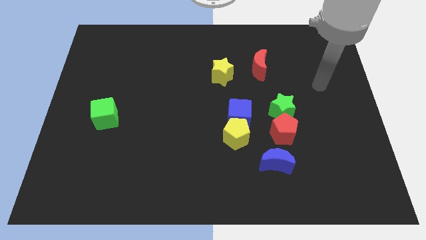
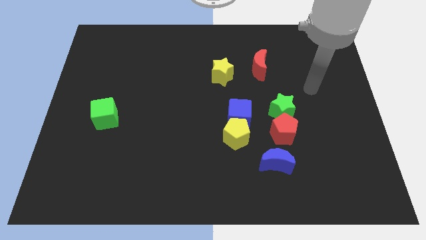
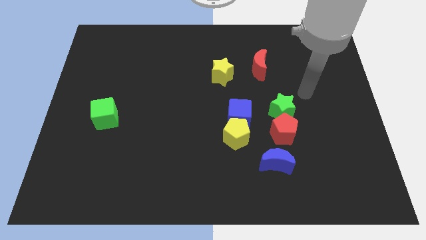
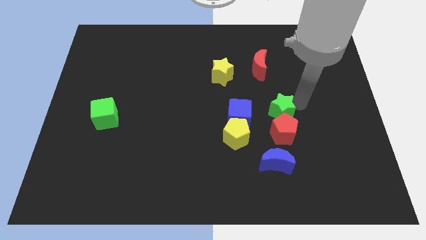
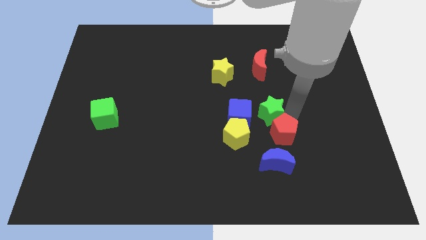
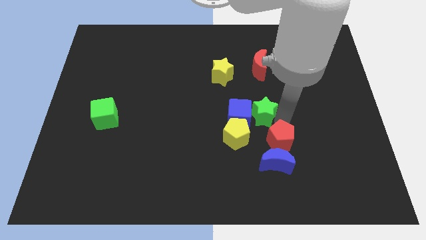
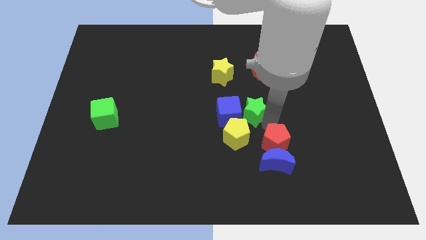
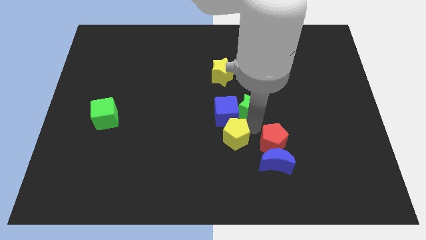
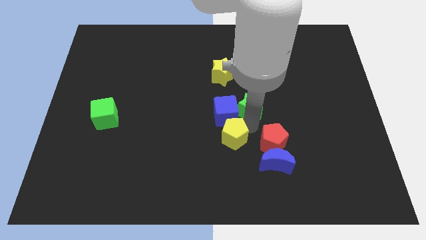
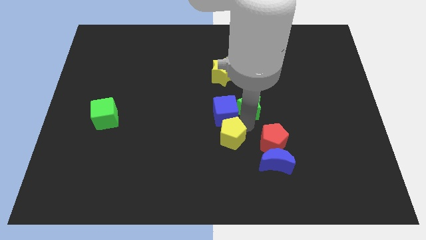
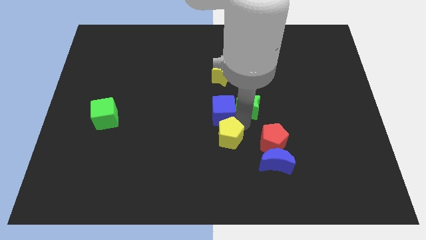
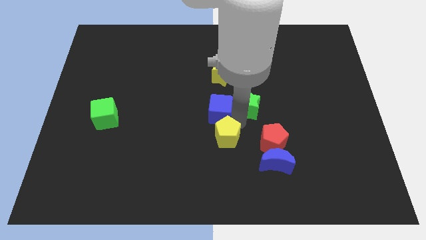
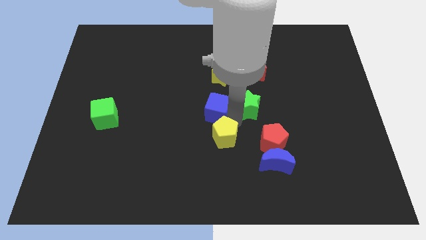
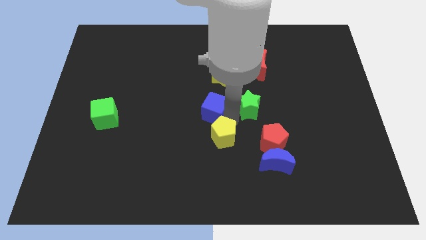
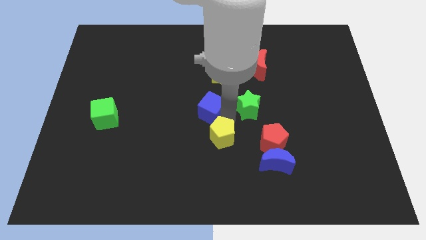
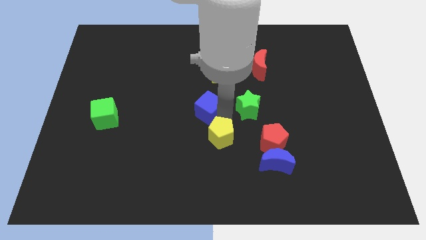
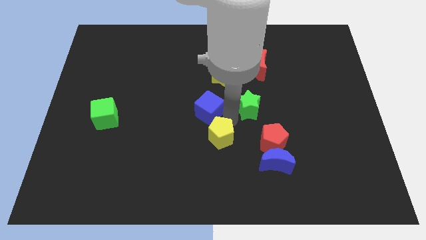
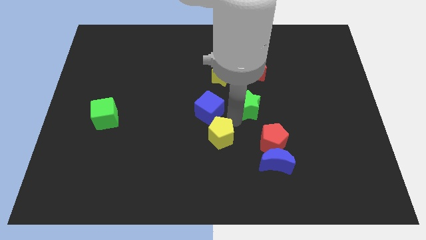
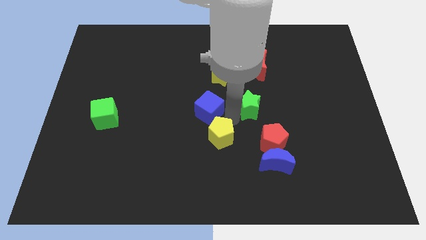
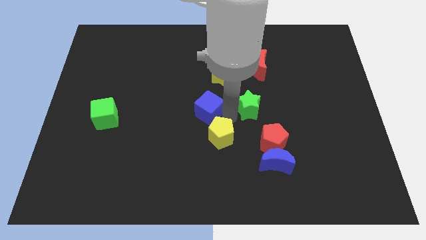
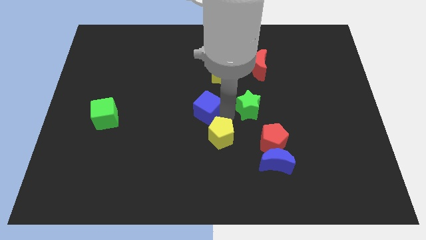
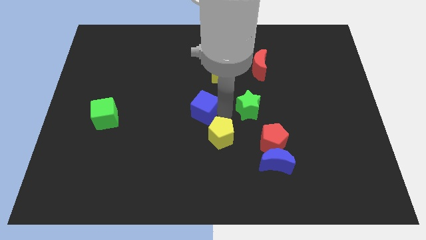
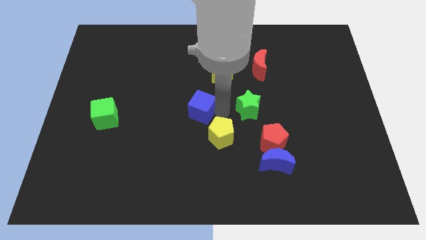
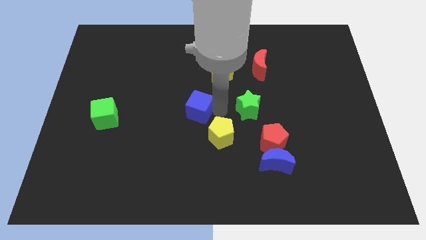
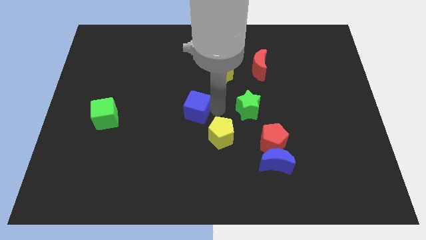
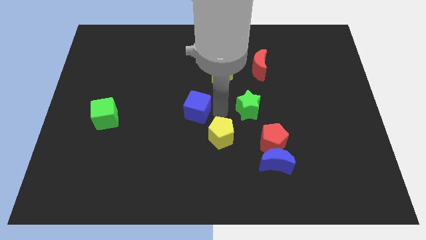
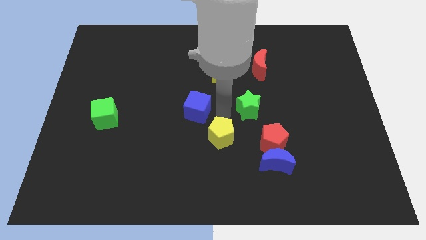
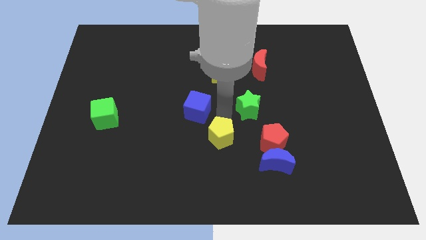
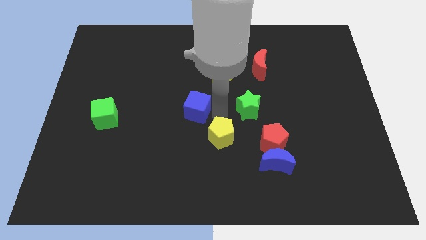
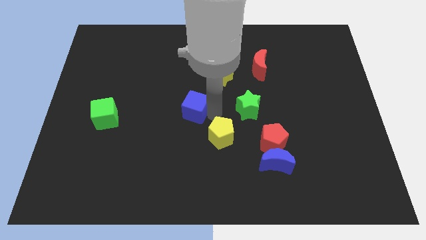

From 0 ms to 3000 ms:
move the blue cube away from the yellow pentagon and green star

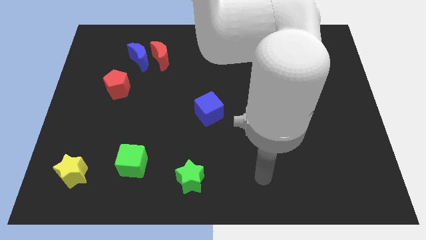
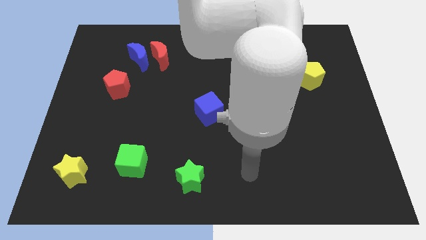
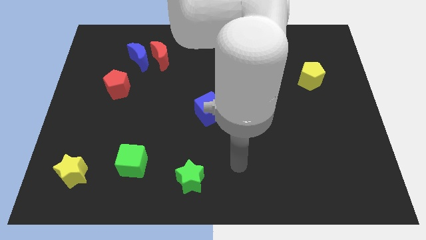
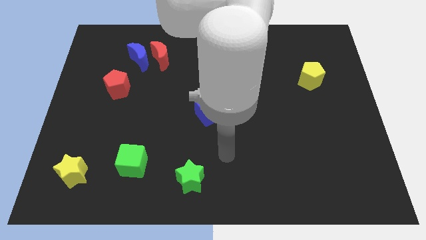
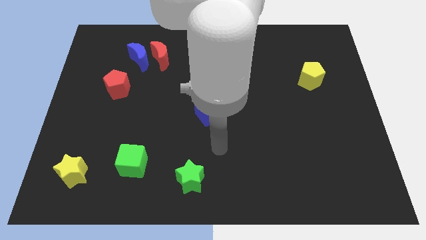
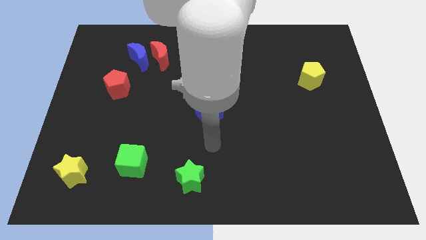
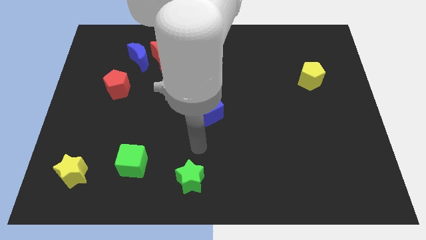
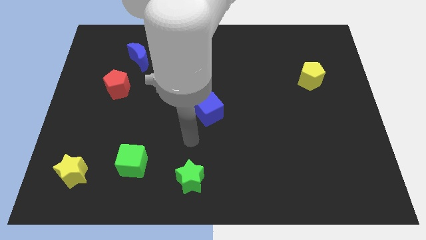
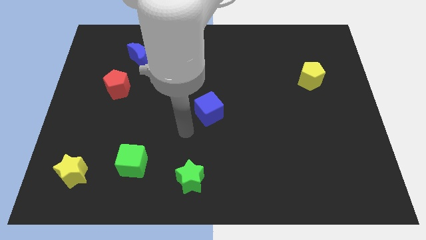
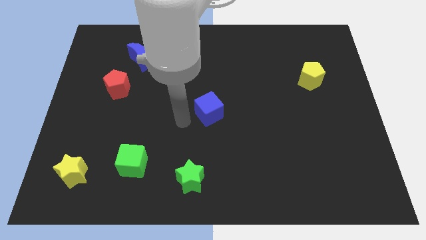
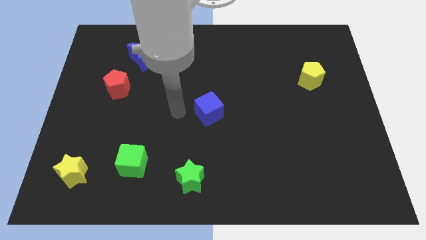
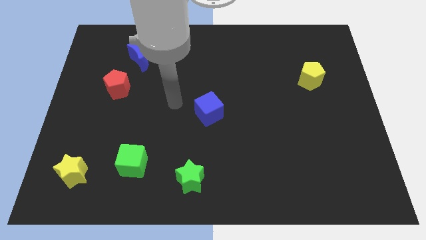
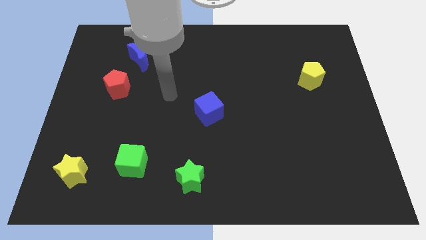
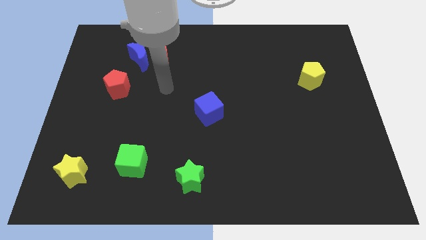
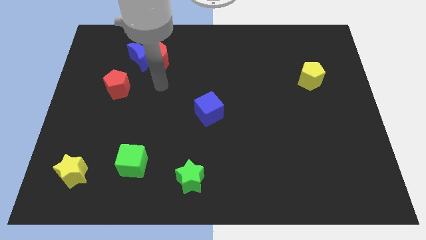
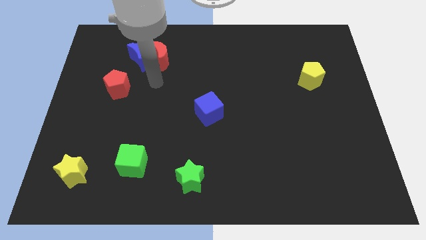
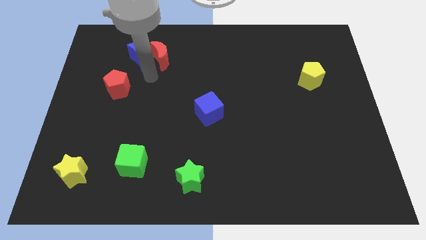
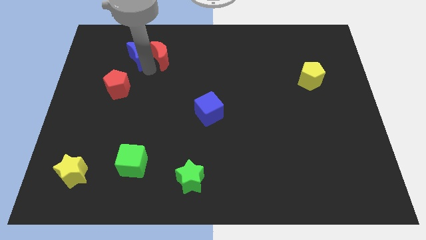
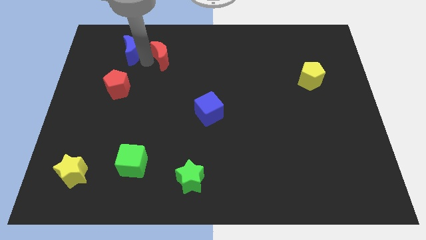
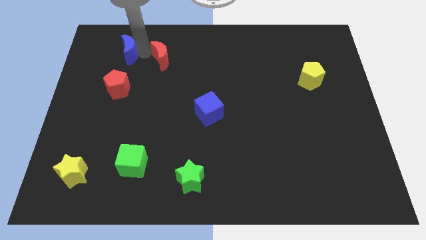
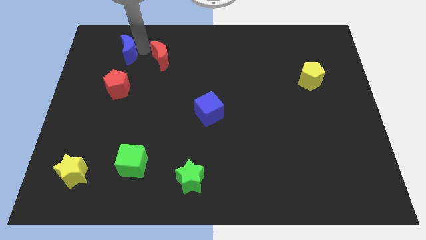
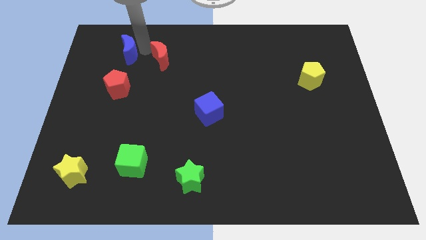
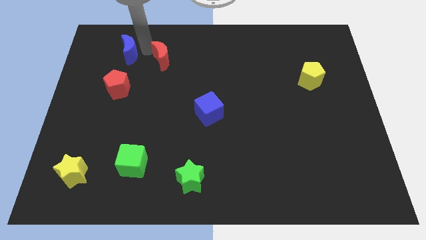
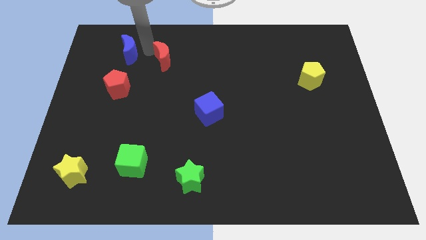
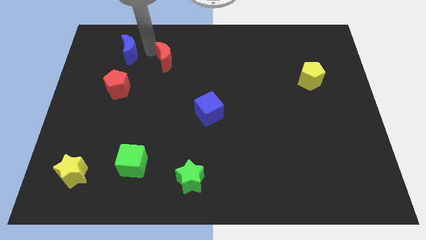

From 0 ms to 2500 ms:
pull the red moon apart from the blue moon

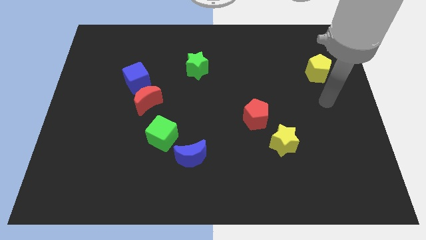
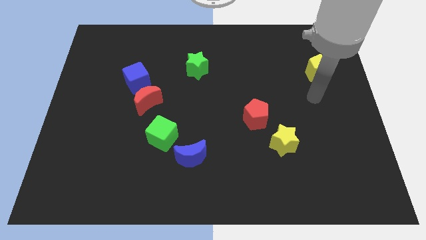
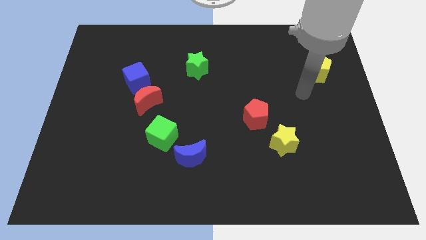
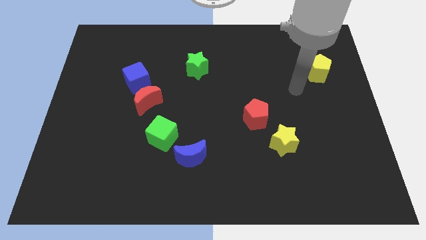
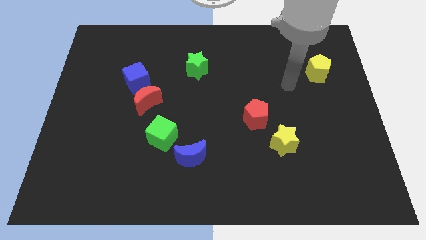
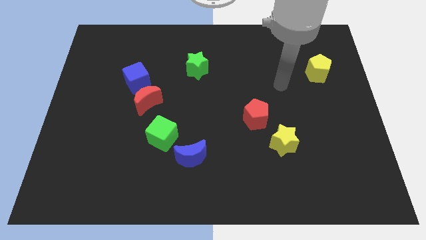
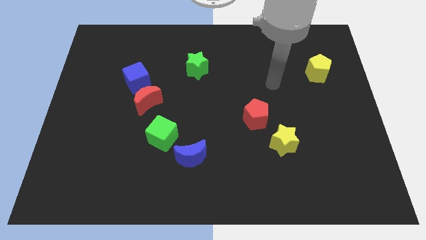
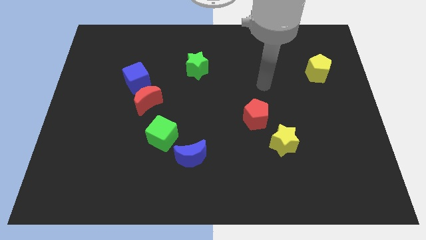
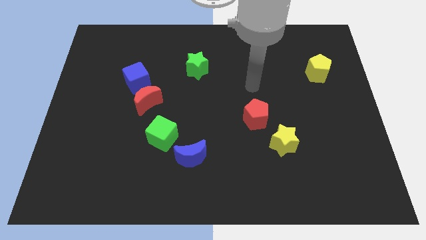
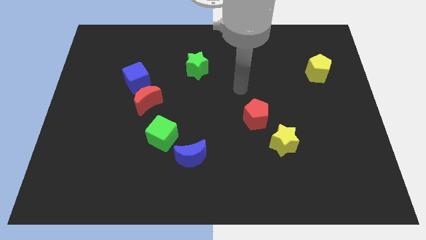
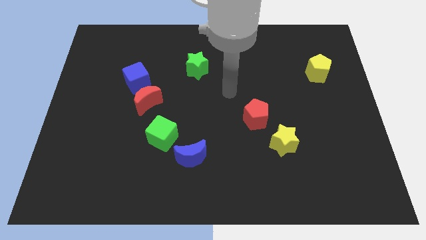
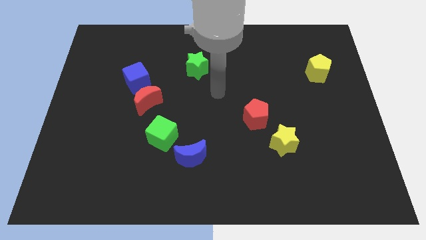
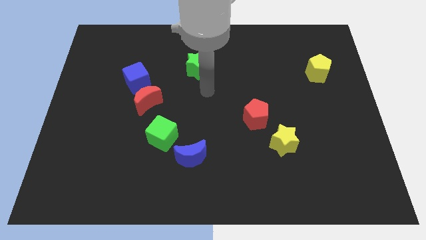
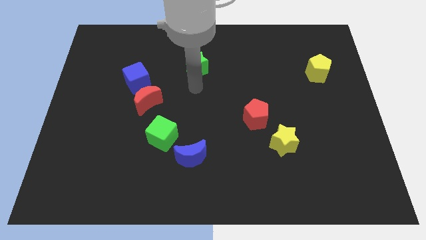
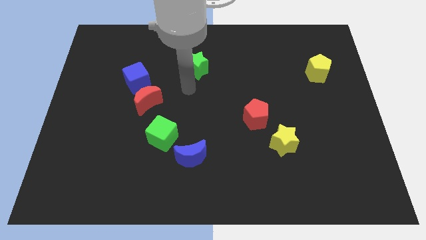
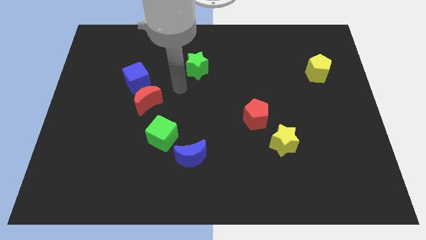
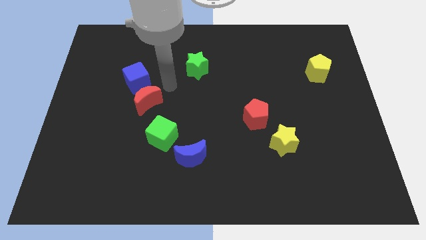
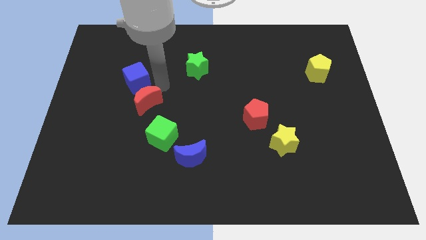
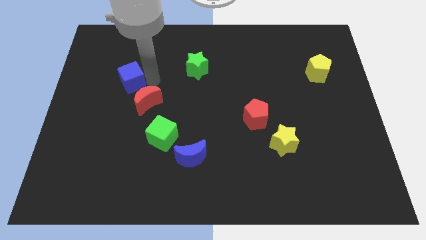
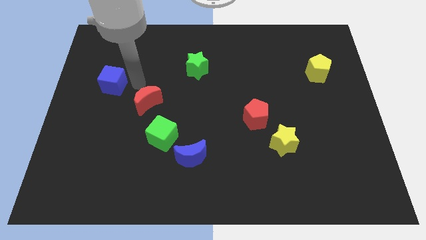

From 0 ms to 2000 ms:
move the red moon away from the blue cube

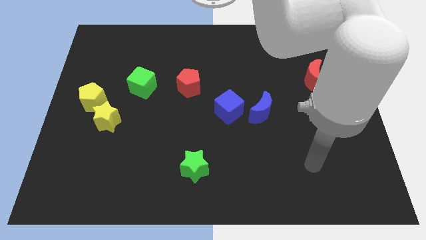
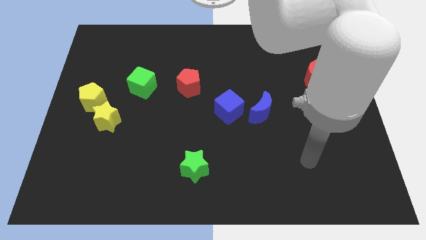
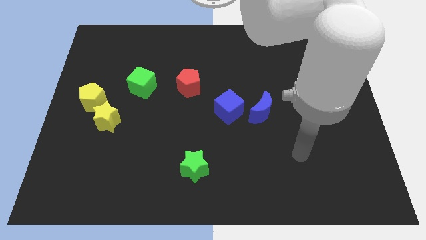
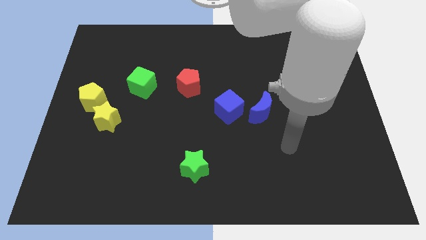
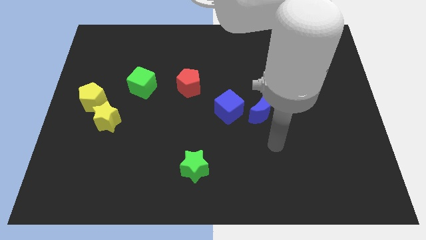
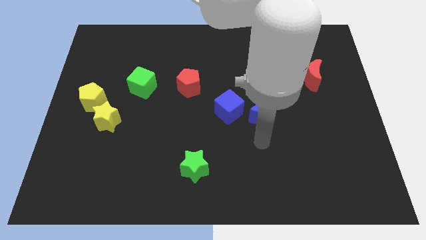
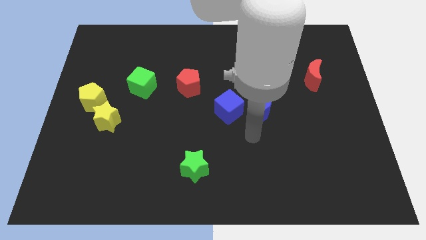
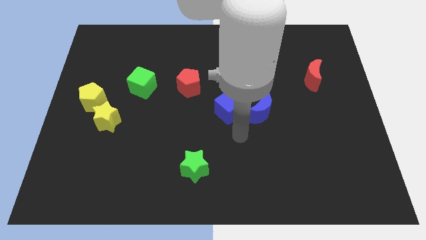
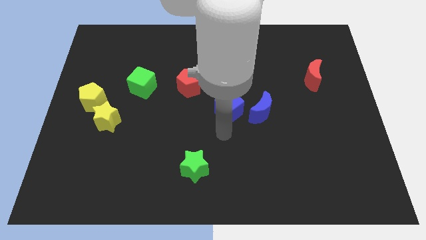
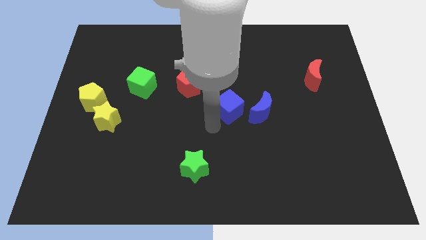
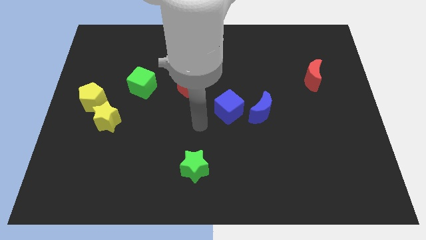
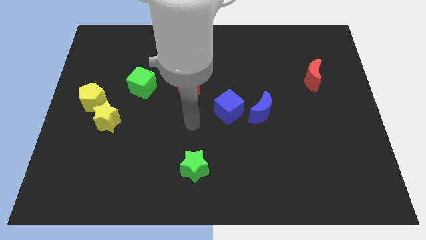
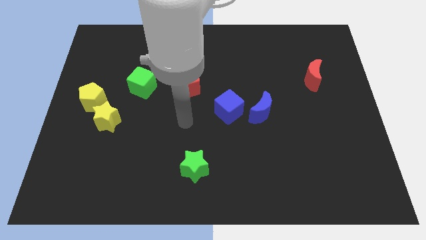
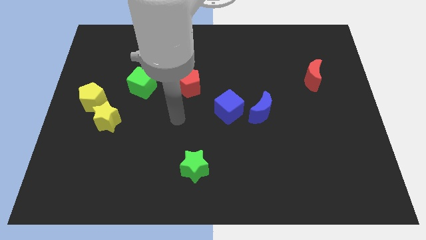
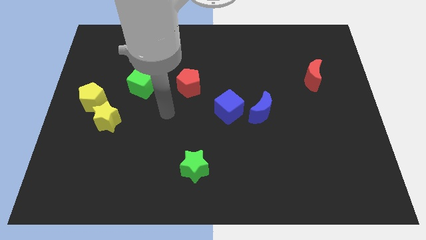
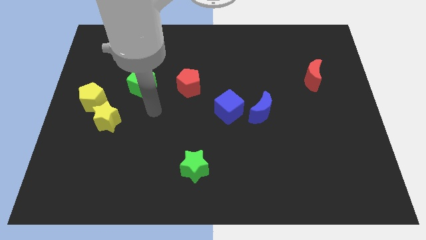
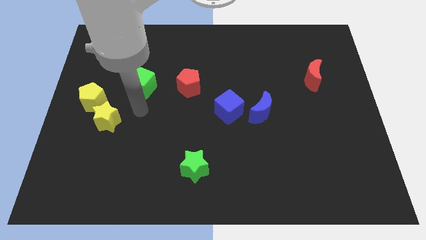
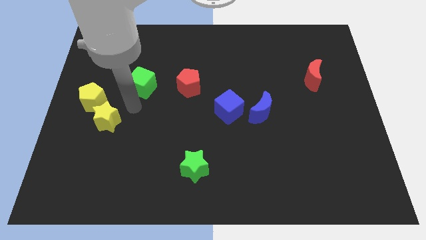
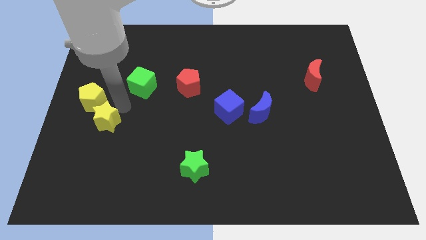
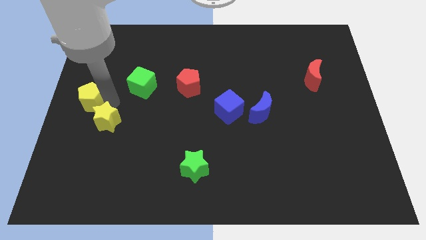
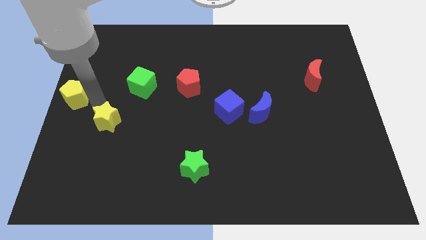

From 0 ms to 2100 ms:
pull the yellow star apart from the yellow pentagon
